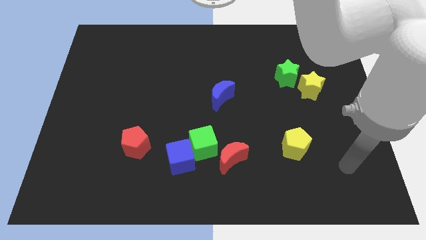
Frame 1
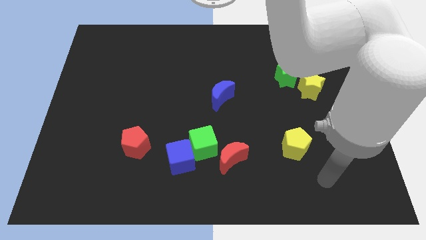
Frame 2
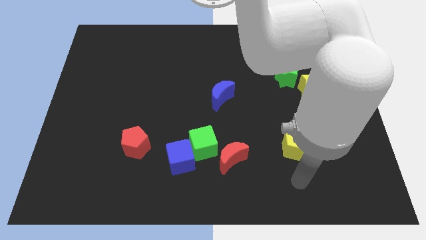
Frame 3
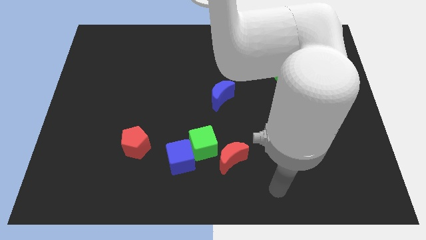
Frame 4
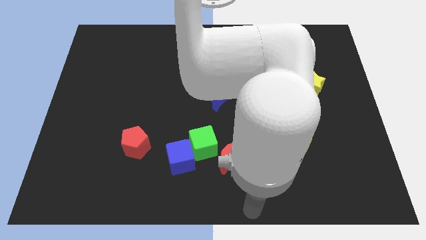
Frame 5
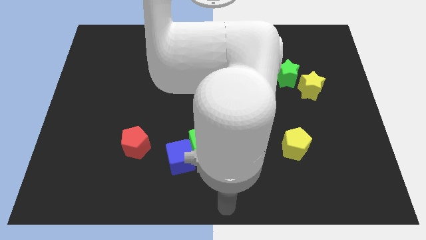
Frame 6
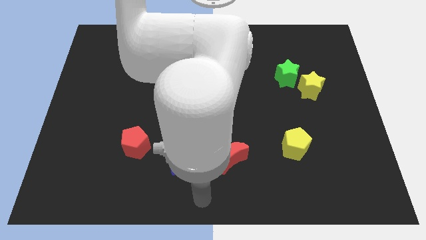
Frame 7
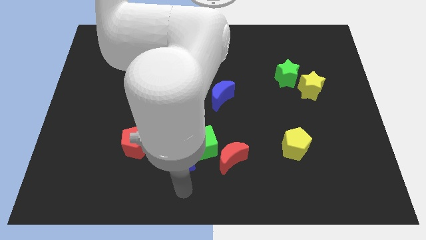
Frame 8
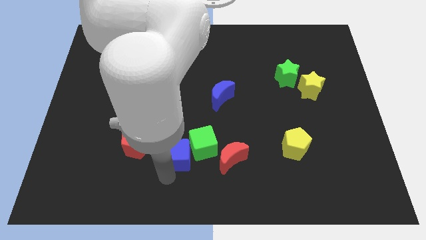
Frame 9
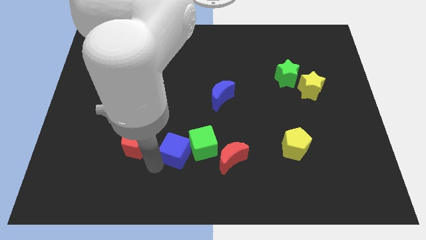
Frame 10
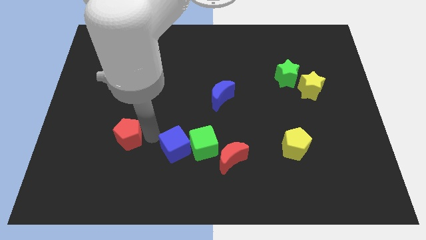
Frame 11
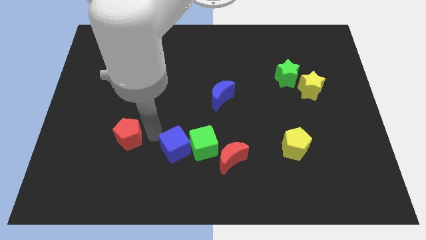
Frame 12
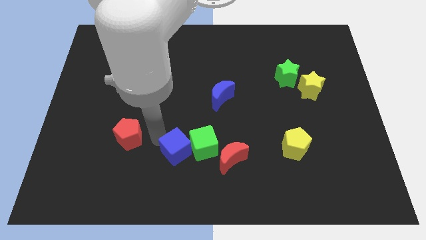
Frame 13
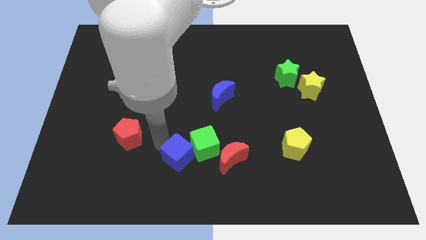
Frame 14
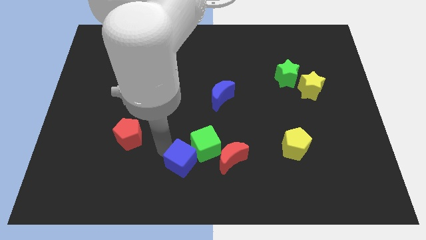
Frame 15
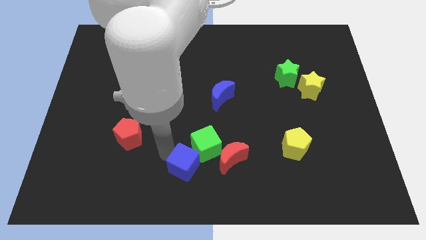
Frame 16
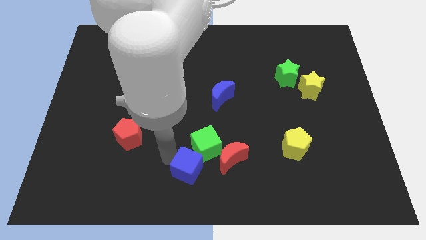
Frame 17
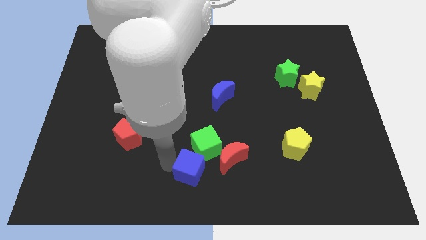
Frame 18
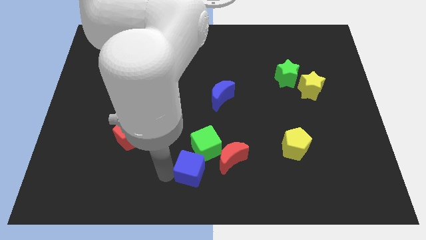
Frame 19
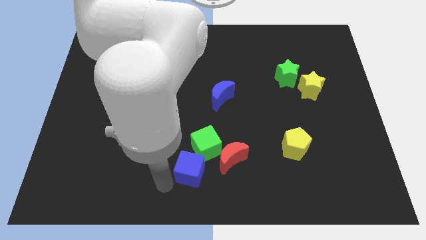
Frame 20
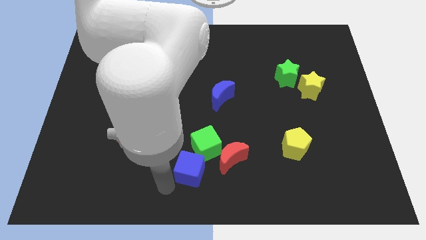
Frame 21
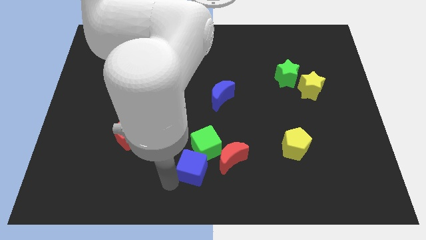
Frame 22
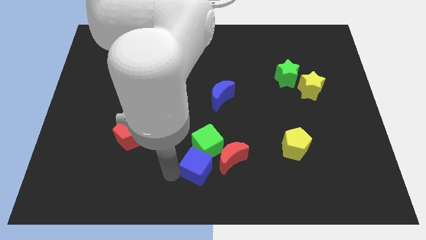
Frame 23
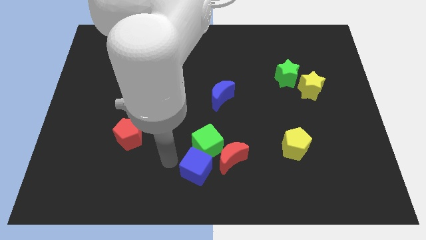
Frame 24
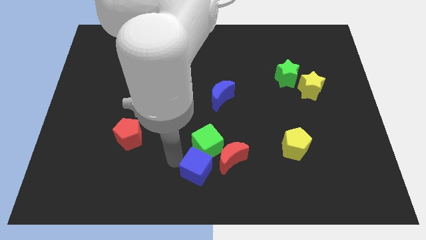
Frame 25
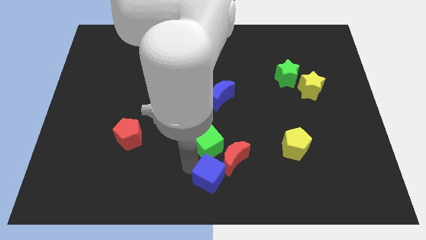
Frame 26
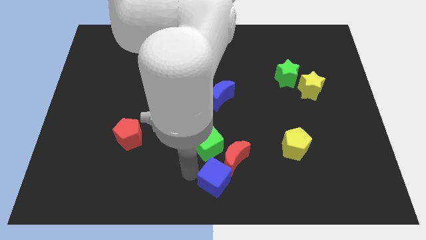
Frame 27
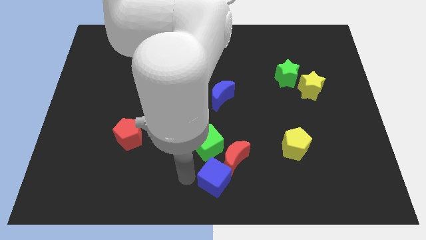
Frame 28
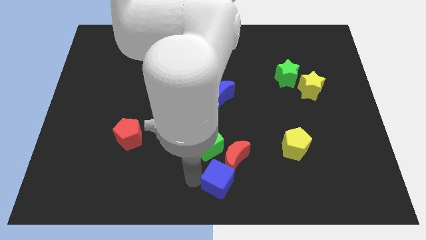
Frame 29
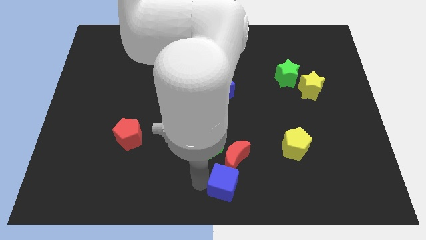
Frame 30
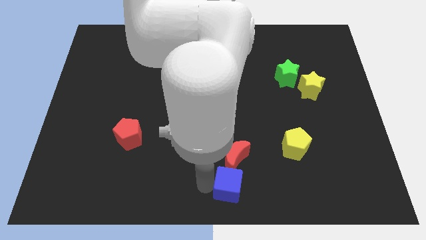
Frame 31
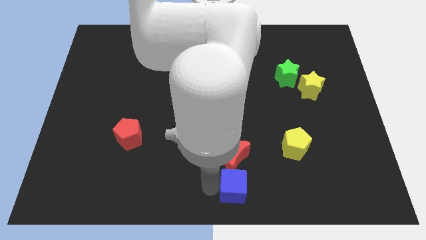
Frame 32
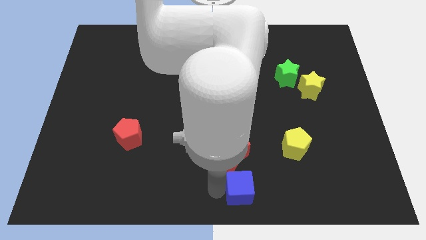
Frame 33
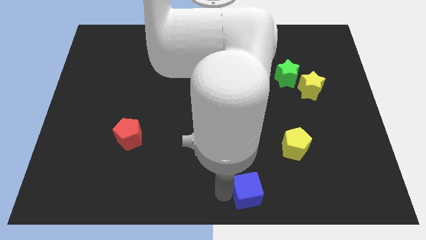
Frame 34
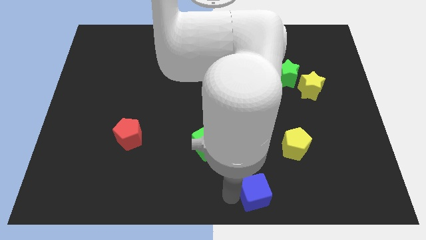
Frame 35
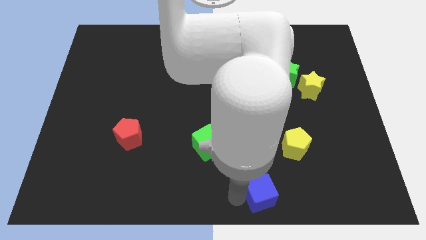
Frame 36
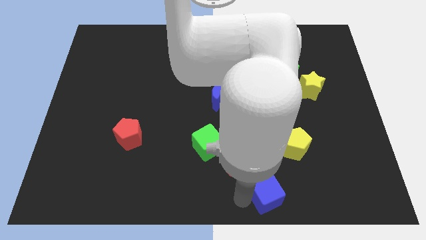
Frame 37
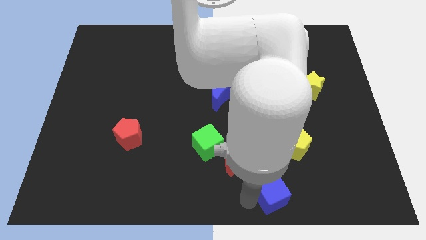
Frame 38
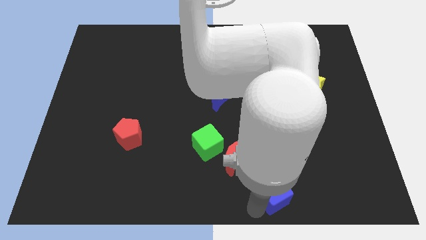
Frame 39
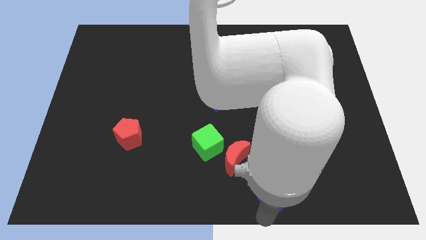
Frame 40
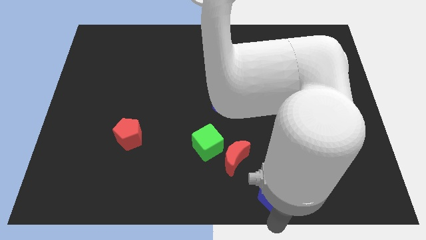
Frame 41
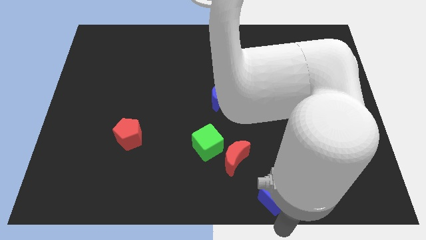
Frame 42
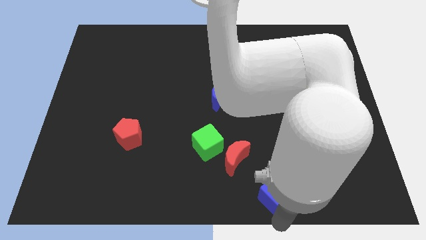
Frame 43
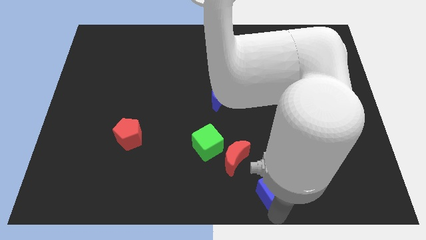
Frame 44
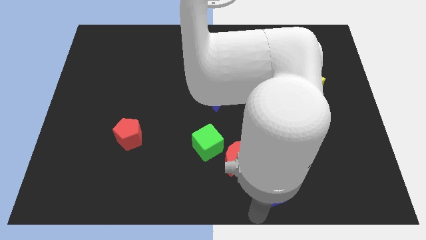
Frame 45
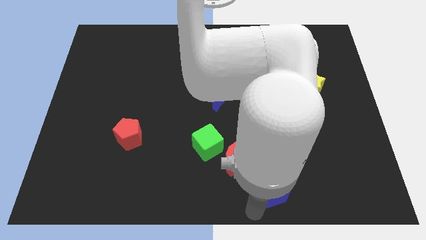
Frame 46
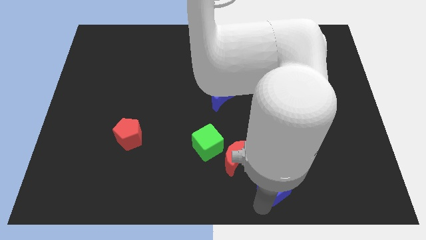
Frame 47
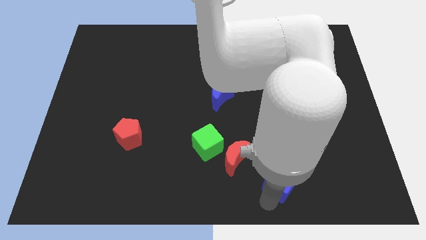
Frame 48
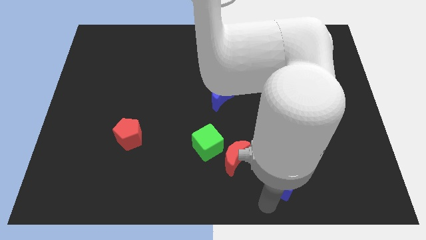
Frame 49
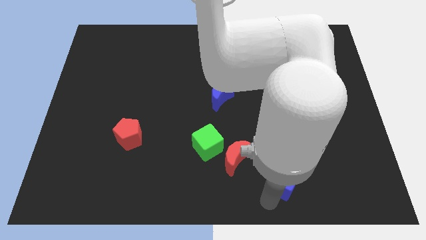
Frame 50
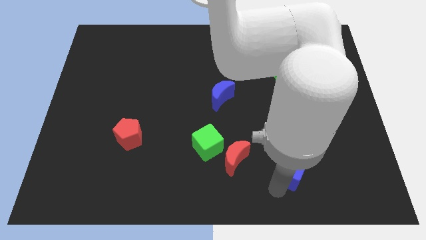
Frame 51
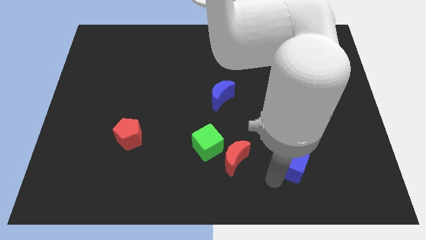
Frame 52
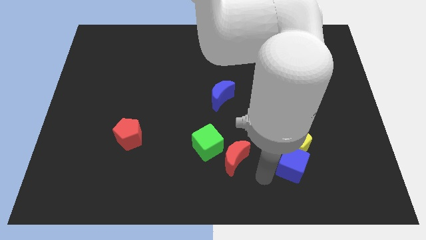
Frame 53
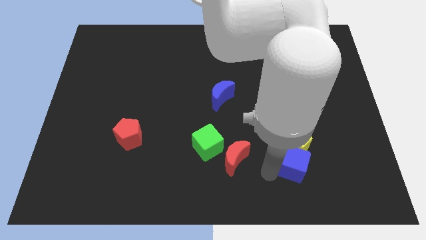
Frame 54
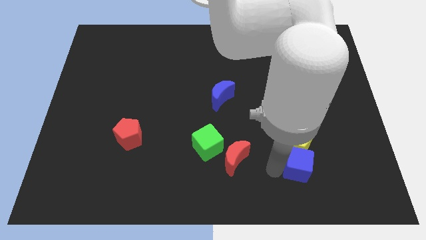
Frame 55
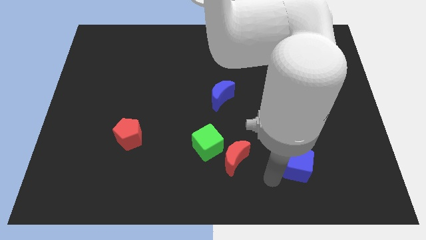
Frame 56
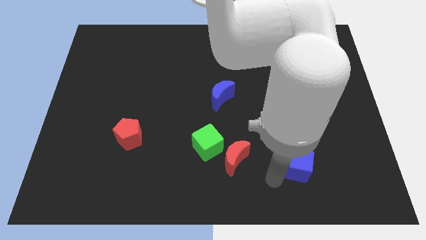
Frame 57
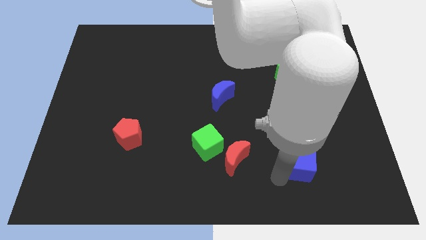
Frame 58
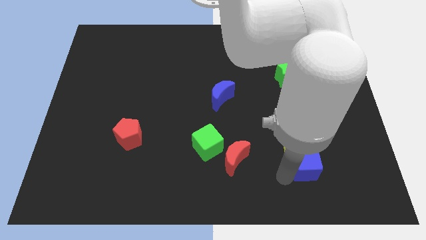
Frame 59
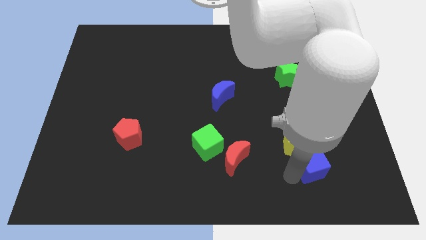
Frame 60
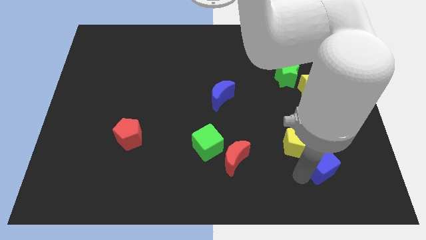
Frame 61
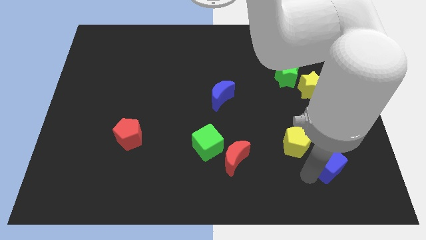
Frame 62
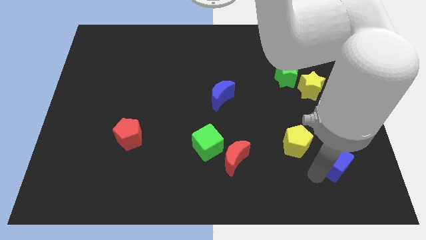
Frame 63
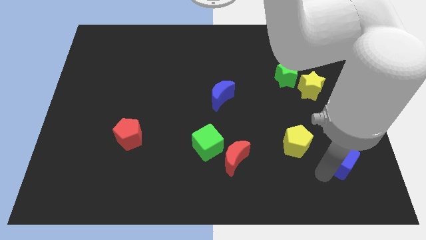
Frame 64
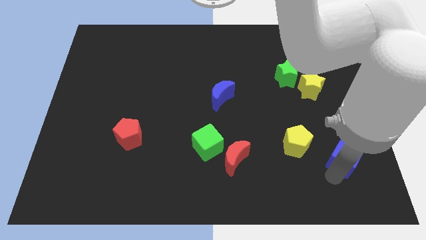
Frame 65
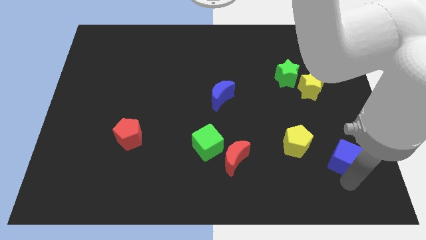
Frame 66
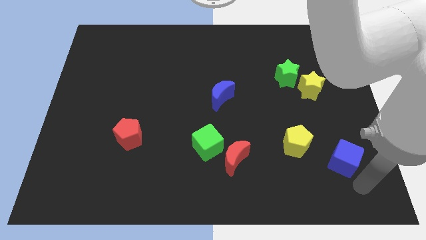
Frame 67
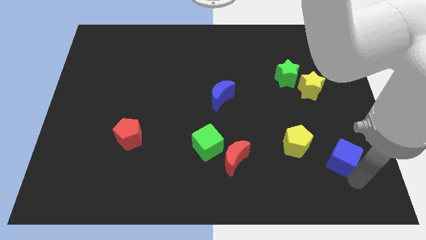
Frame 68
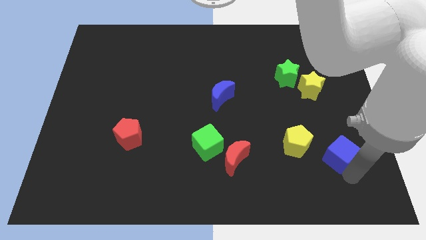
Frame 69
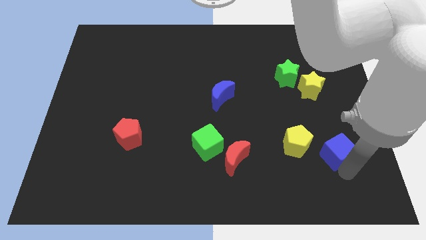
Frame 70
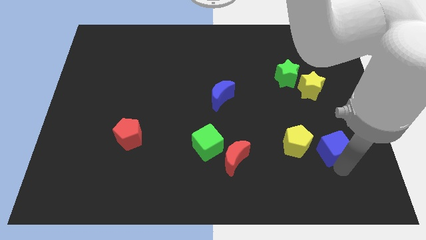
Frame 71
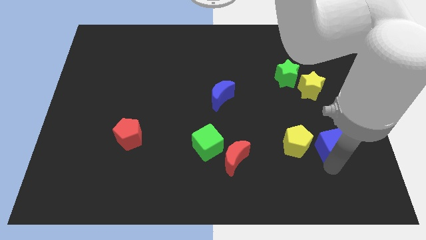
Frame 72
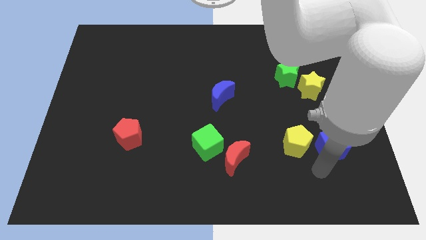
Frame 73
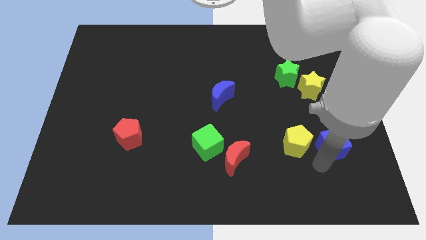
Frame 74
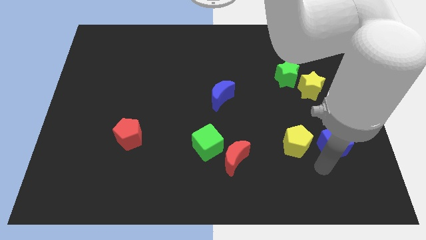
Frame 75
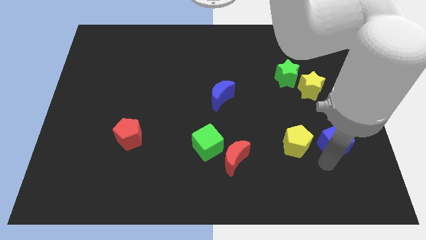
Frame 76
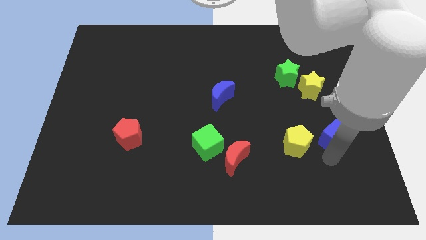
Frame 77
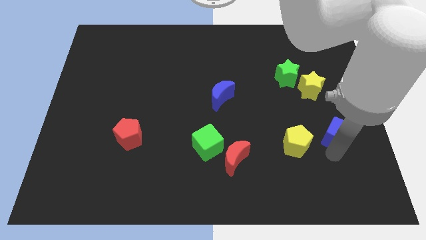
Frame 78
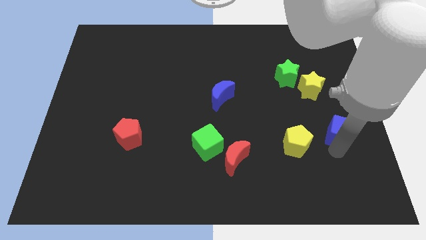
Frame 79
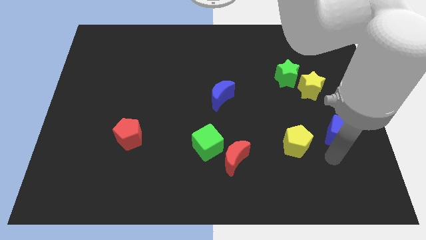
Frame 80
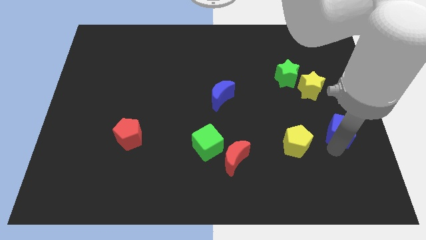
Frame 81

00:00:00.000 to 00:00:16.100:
put the blue cube to the center right
